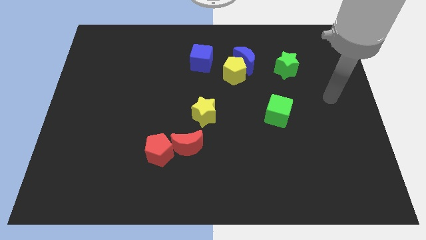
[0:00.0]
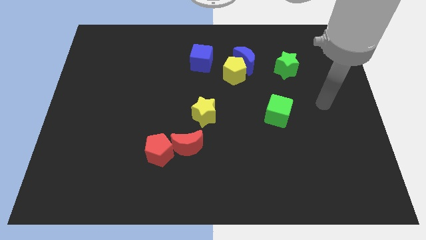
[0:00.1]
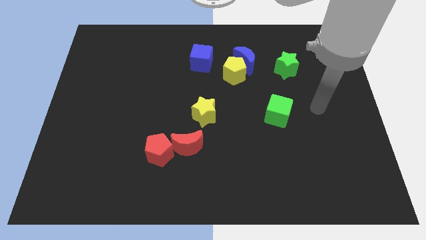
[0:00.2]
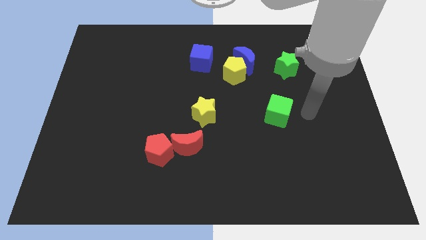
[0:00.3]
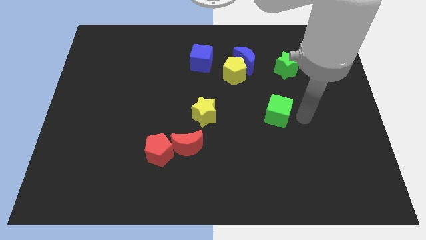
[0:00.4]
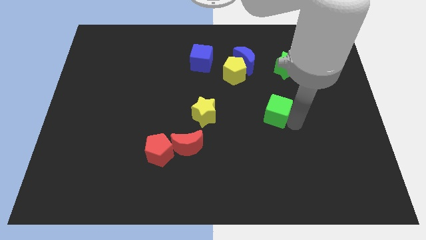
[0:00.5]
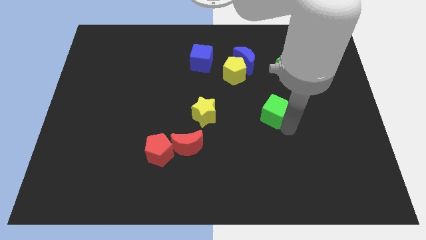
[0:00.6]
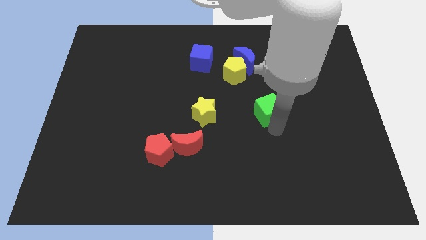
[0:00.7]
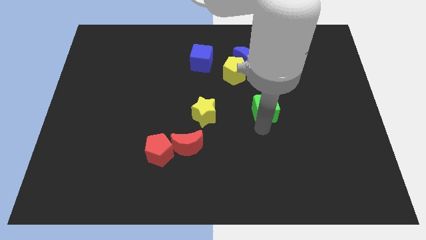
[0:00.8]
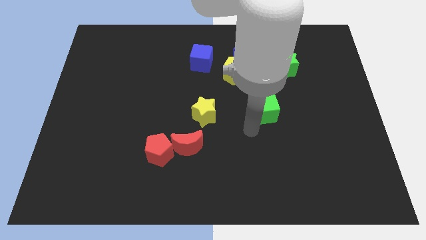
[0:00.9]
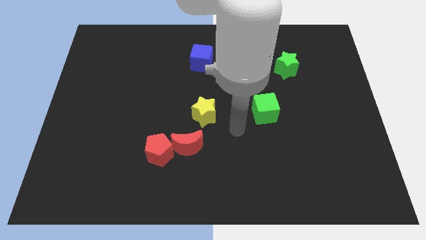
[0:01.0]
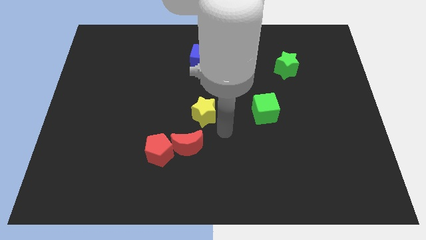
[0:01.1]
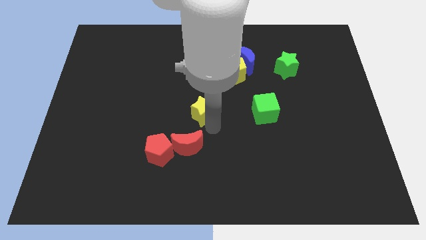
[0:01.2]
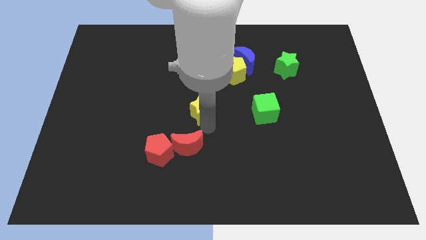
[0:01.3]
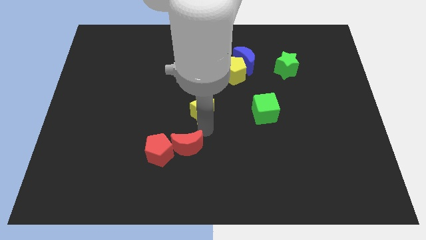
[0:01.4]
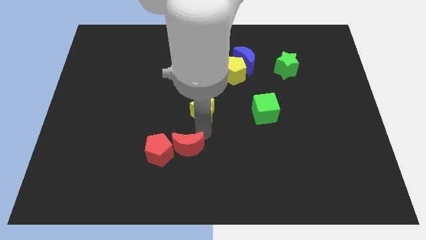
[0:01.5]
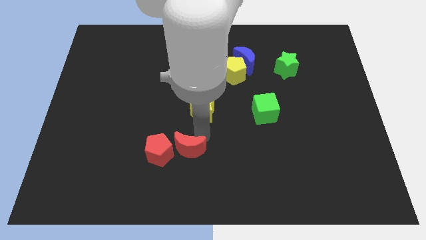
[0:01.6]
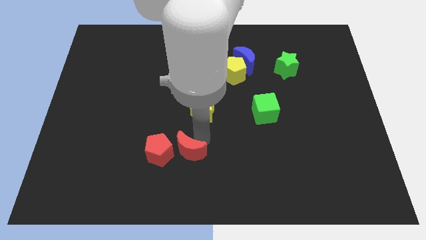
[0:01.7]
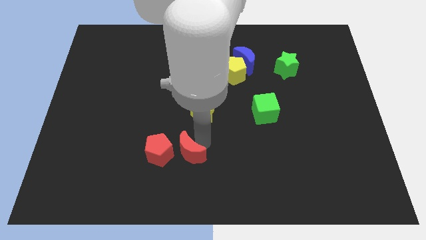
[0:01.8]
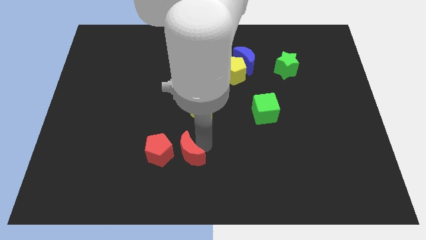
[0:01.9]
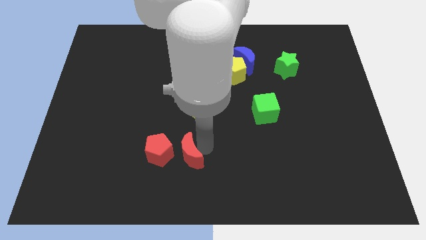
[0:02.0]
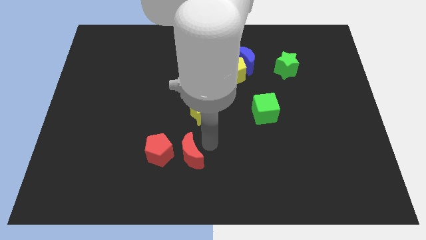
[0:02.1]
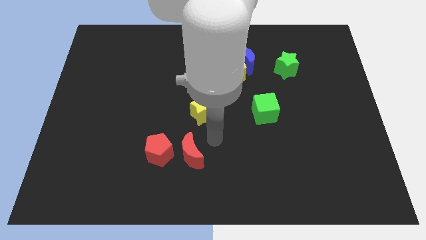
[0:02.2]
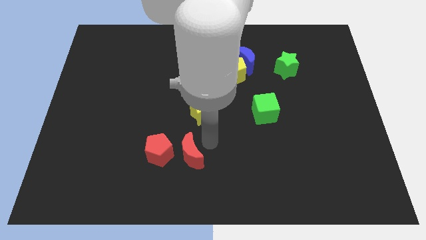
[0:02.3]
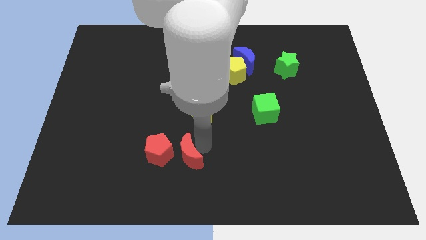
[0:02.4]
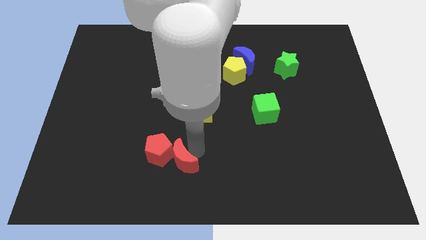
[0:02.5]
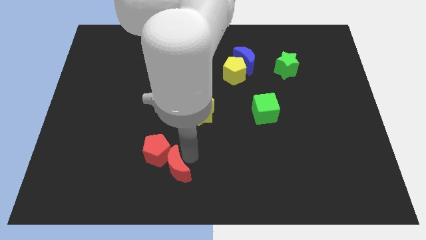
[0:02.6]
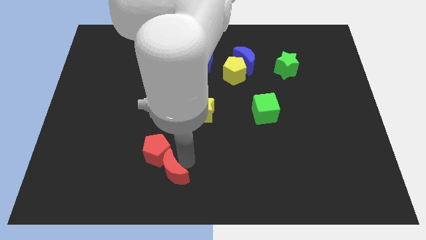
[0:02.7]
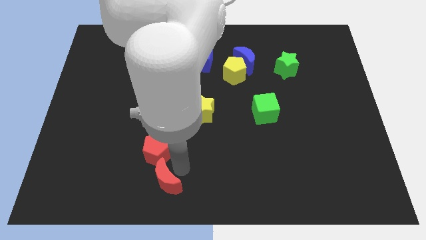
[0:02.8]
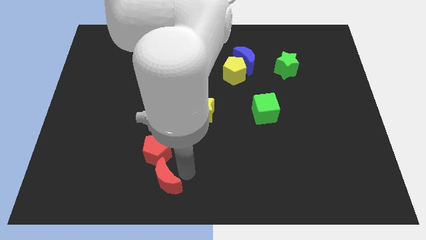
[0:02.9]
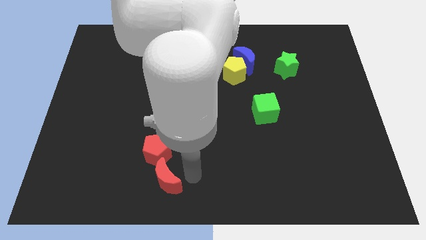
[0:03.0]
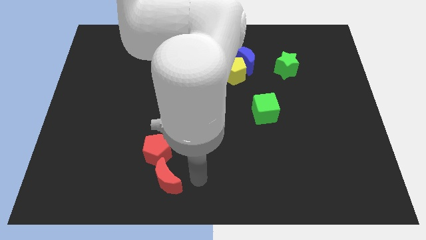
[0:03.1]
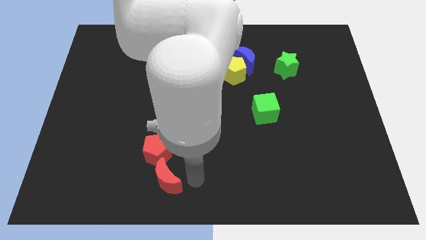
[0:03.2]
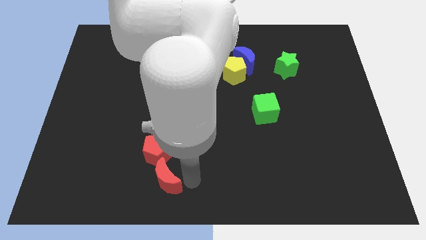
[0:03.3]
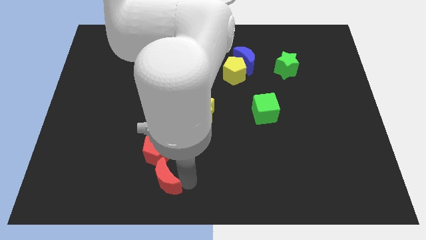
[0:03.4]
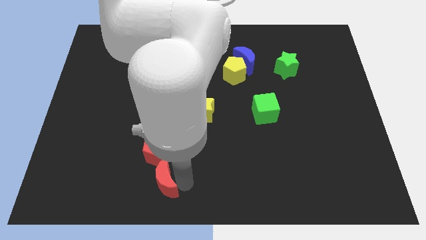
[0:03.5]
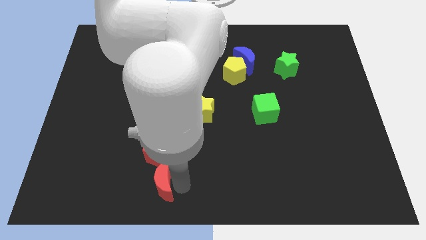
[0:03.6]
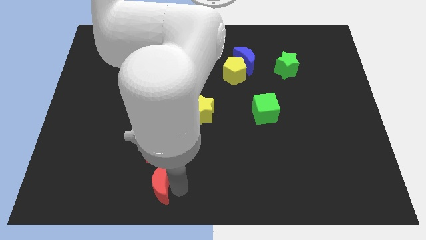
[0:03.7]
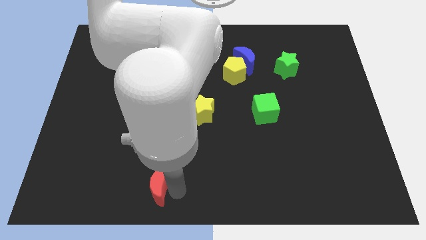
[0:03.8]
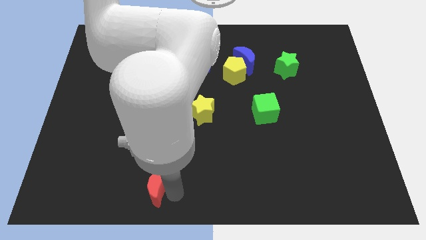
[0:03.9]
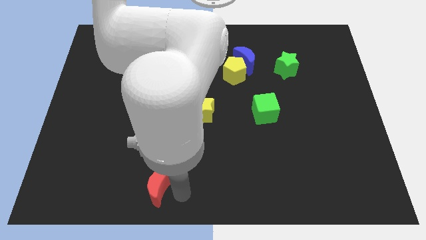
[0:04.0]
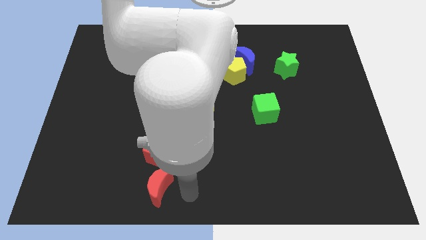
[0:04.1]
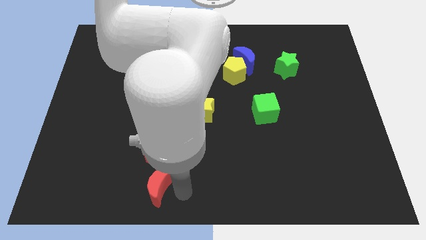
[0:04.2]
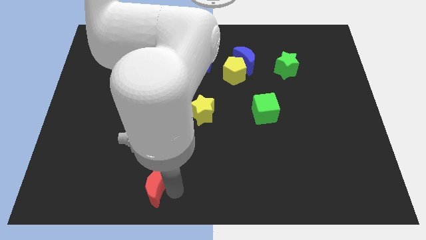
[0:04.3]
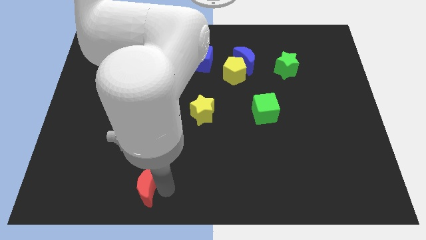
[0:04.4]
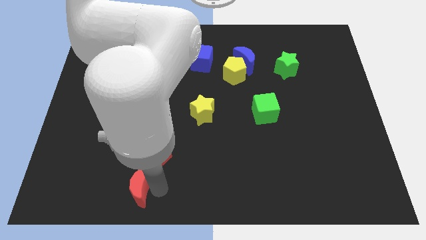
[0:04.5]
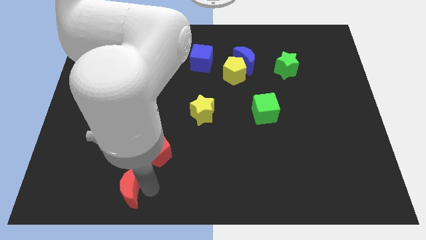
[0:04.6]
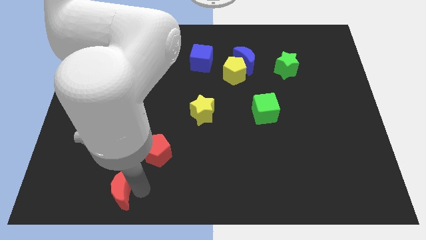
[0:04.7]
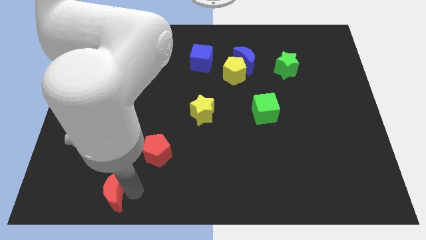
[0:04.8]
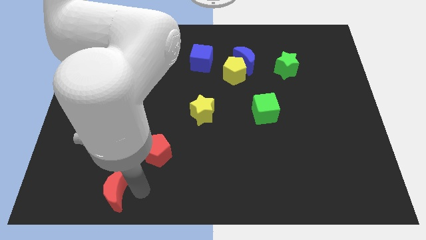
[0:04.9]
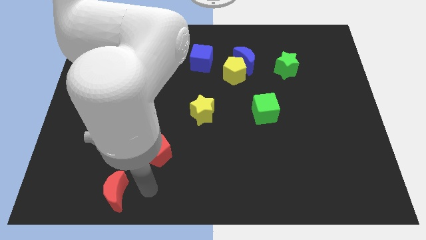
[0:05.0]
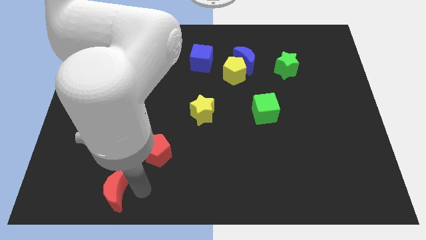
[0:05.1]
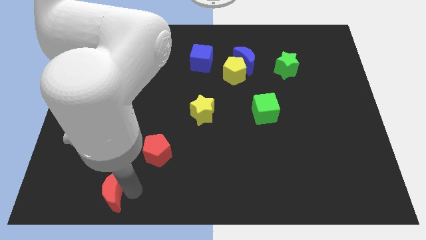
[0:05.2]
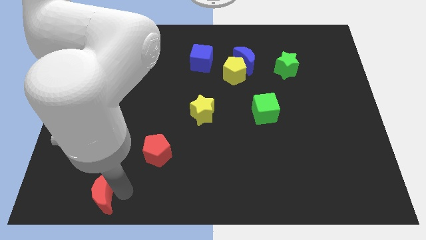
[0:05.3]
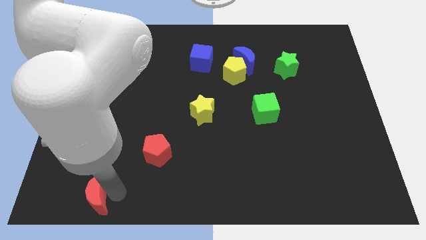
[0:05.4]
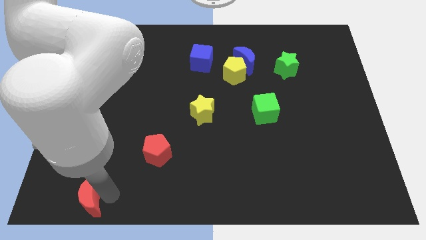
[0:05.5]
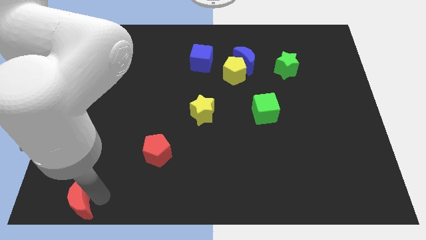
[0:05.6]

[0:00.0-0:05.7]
push the red moon to the bottom left

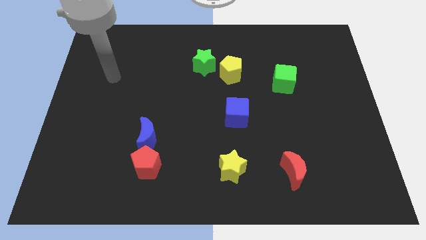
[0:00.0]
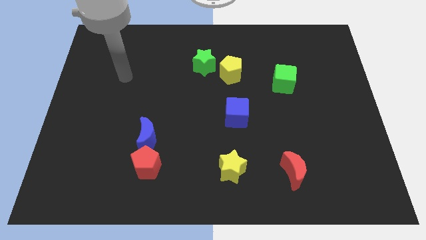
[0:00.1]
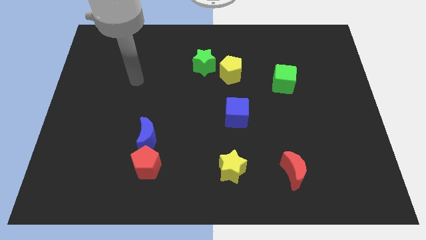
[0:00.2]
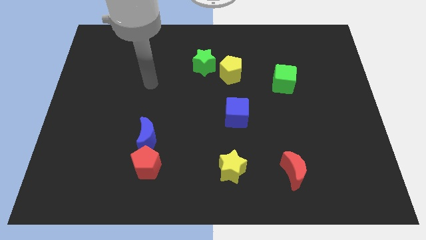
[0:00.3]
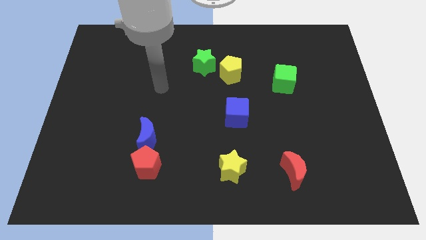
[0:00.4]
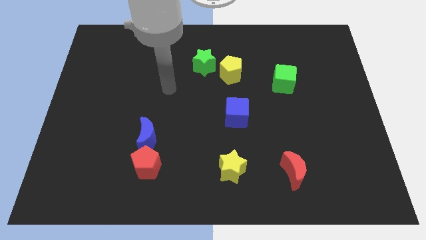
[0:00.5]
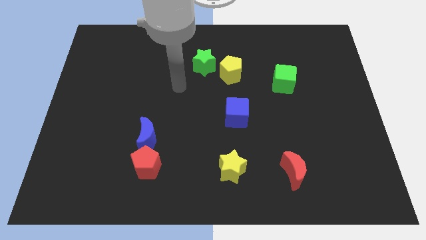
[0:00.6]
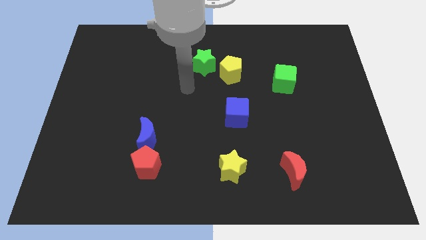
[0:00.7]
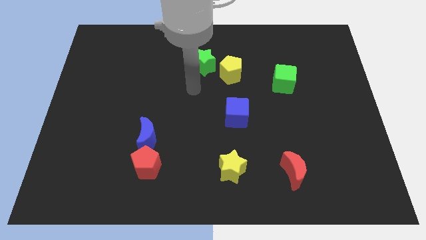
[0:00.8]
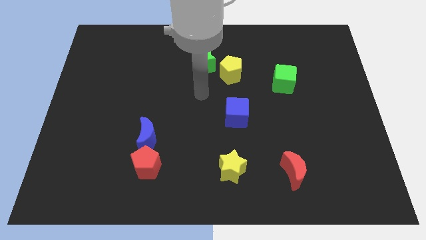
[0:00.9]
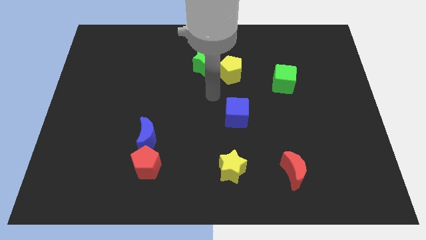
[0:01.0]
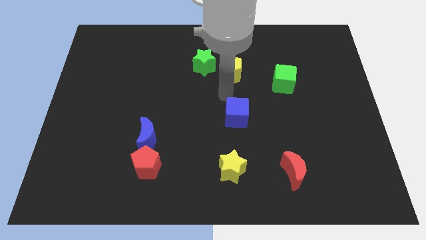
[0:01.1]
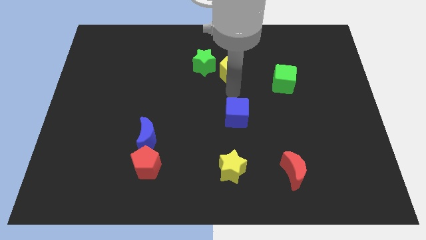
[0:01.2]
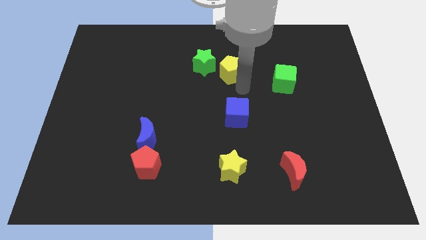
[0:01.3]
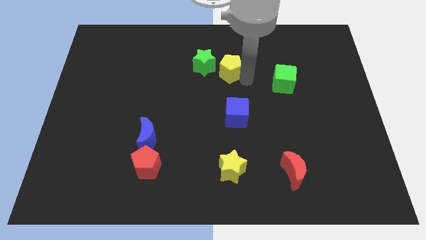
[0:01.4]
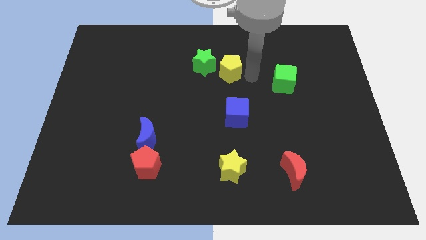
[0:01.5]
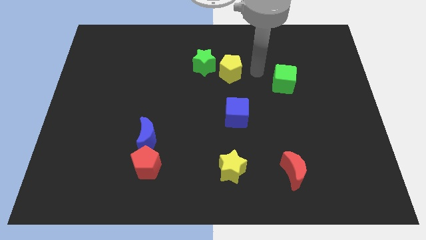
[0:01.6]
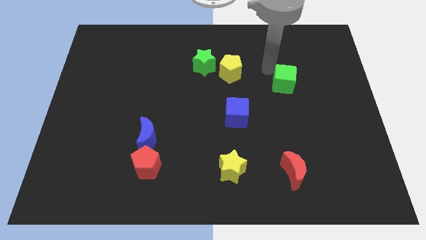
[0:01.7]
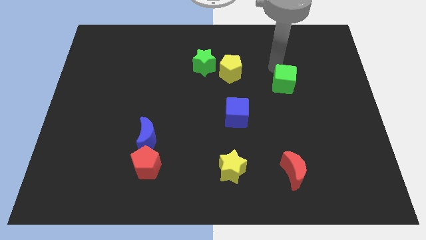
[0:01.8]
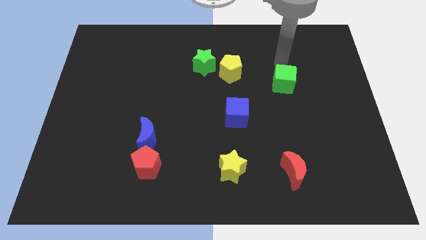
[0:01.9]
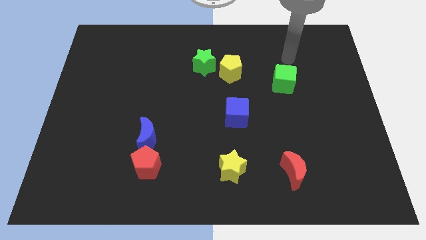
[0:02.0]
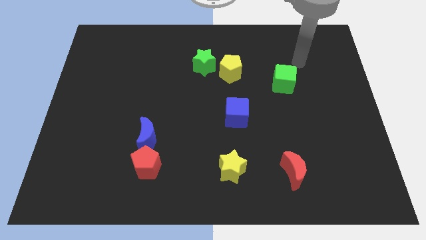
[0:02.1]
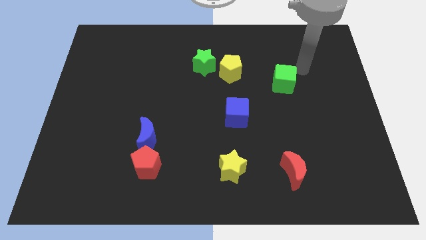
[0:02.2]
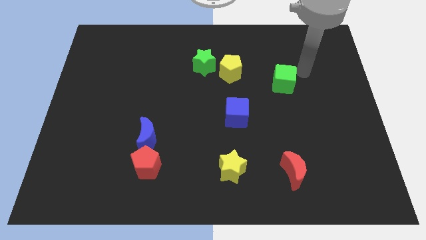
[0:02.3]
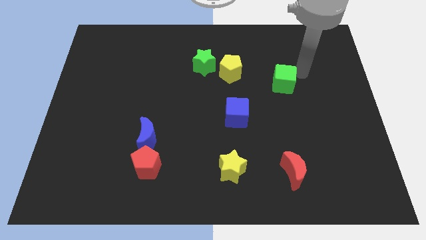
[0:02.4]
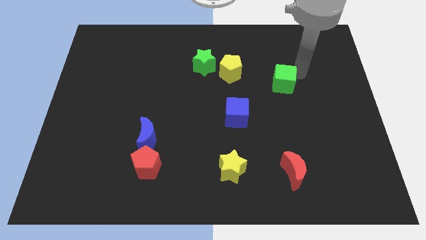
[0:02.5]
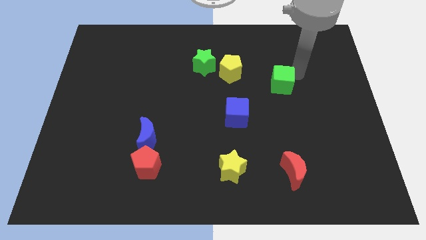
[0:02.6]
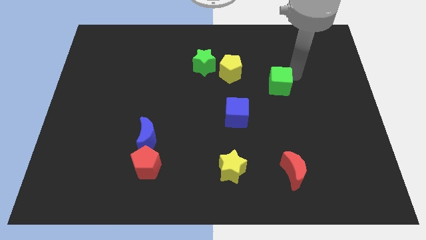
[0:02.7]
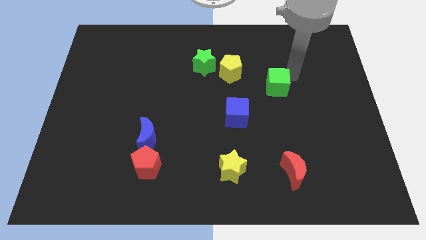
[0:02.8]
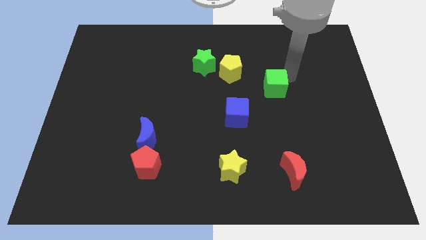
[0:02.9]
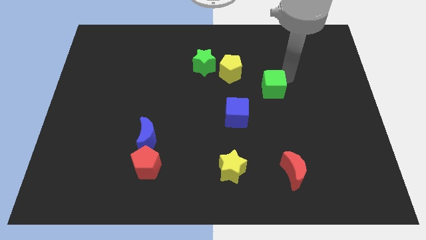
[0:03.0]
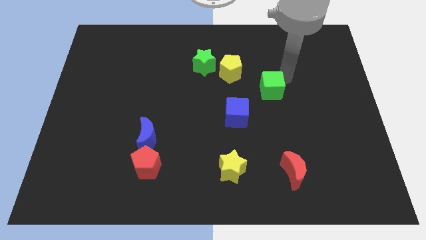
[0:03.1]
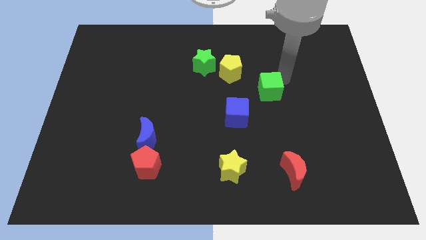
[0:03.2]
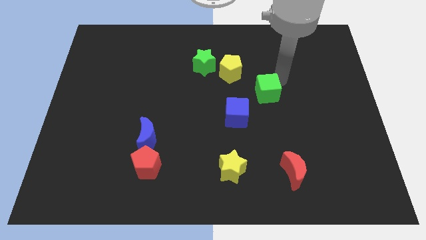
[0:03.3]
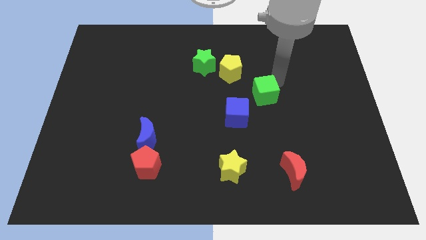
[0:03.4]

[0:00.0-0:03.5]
slide the green cube to the center
